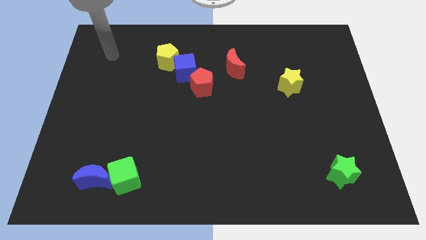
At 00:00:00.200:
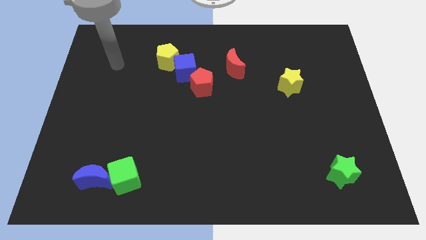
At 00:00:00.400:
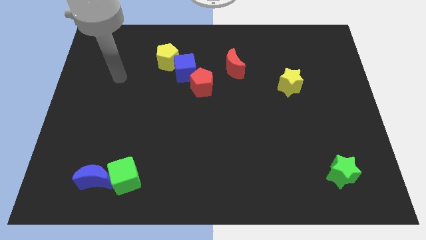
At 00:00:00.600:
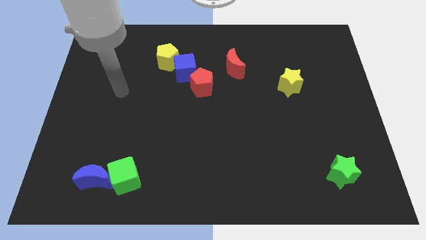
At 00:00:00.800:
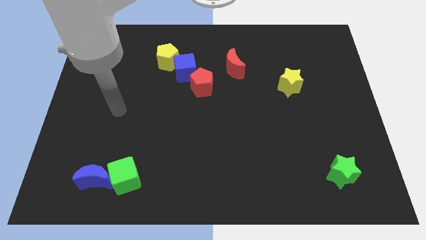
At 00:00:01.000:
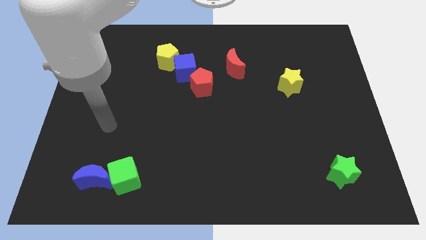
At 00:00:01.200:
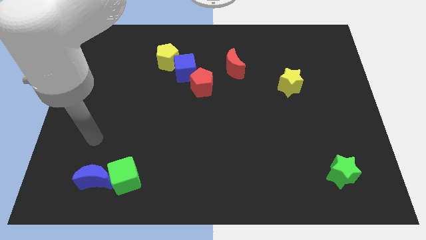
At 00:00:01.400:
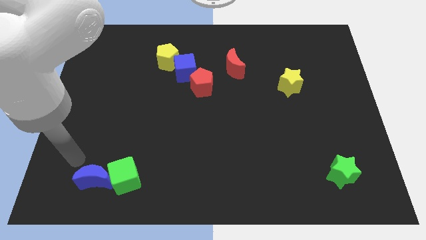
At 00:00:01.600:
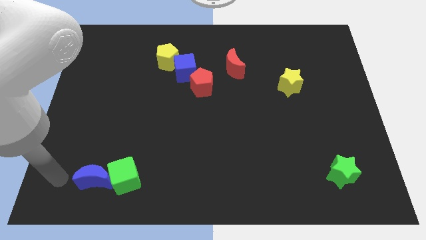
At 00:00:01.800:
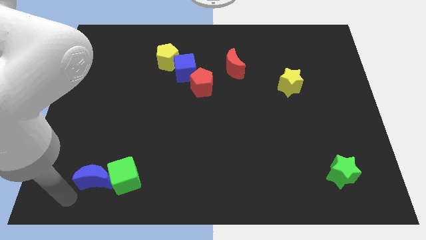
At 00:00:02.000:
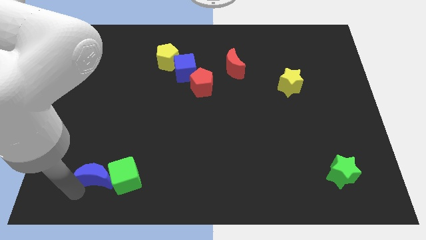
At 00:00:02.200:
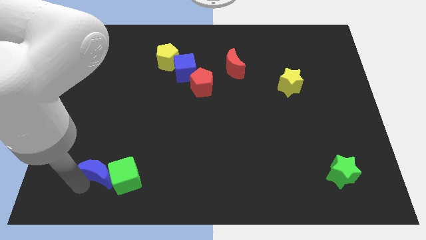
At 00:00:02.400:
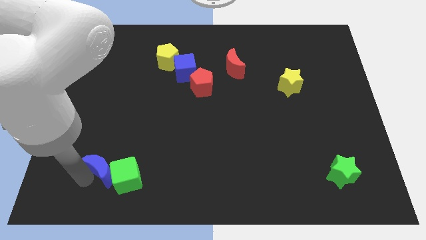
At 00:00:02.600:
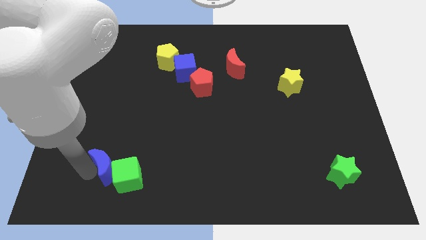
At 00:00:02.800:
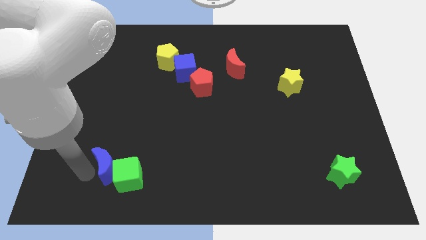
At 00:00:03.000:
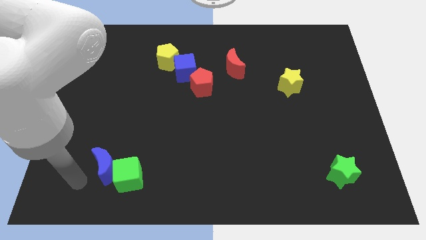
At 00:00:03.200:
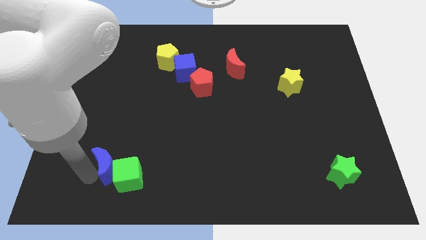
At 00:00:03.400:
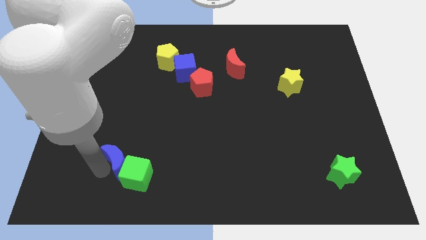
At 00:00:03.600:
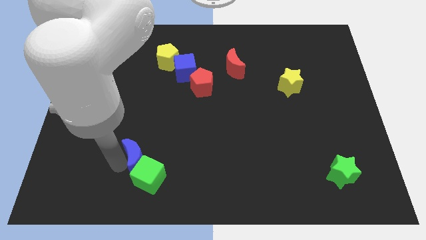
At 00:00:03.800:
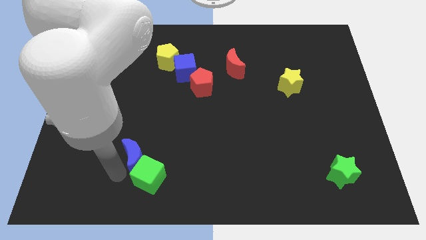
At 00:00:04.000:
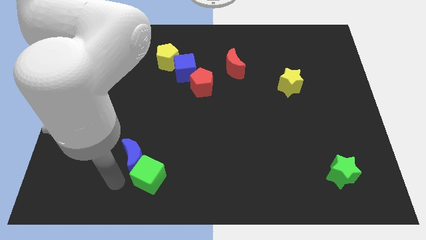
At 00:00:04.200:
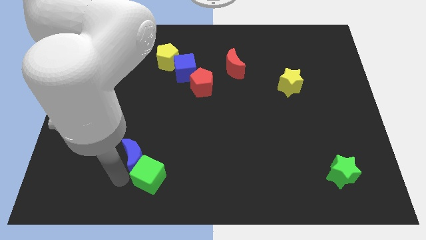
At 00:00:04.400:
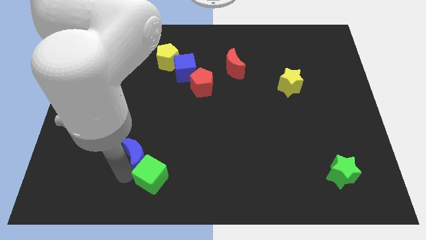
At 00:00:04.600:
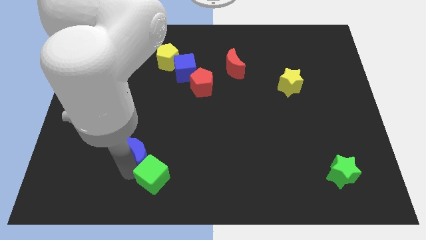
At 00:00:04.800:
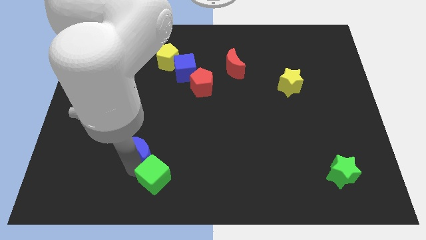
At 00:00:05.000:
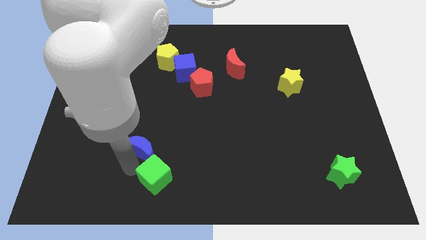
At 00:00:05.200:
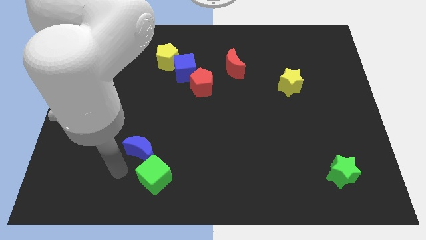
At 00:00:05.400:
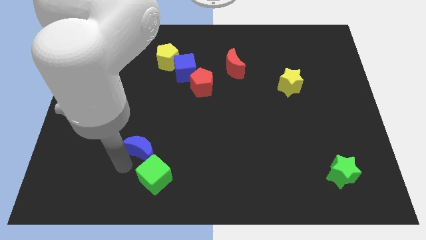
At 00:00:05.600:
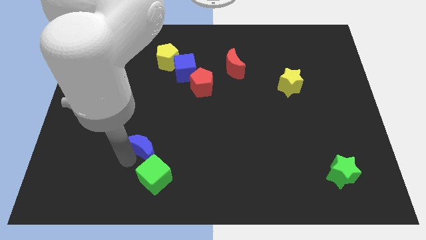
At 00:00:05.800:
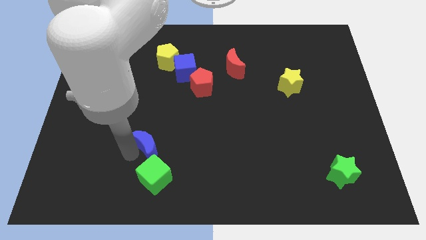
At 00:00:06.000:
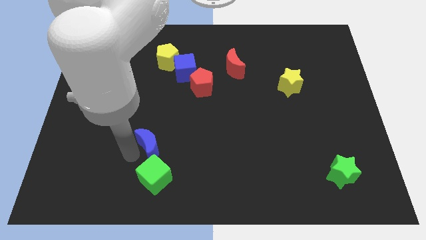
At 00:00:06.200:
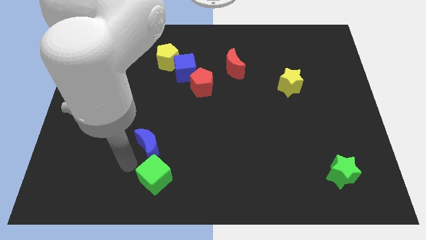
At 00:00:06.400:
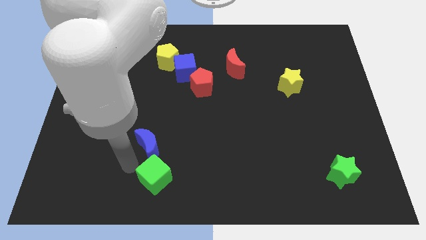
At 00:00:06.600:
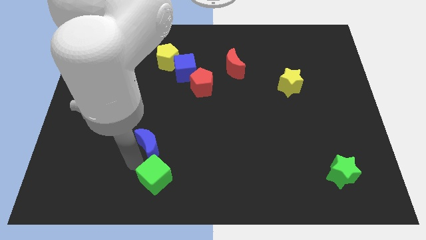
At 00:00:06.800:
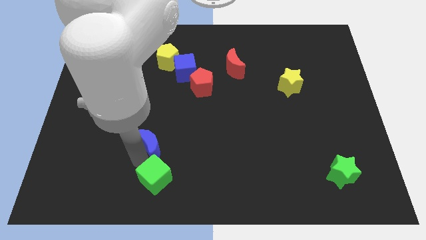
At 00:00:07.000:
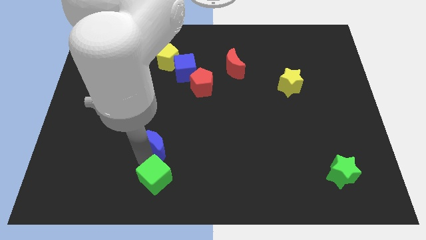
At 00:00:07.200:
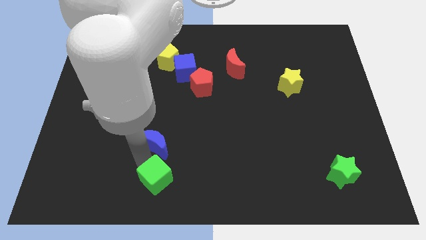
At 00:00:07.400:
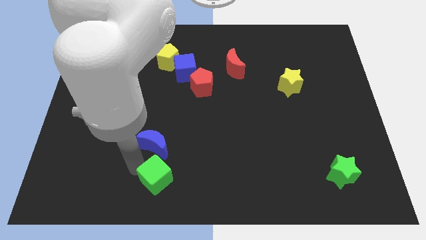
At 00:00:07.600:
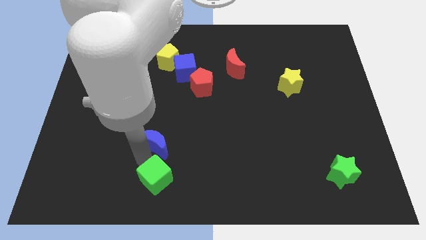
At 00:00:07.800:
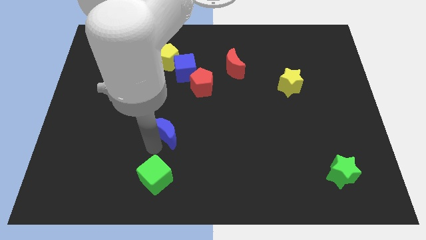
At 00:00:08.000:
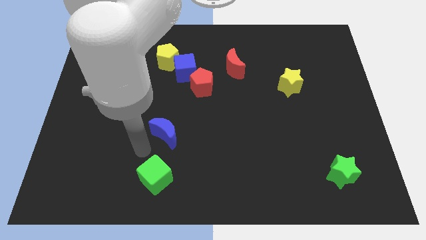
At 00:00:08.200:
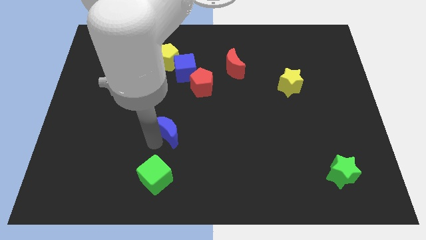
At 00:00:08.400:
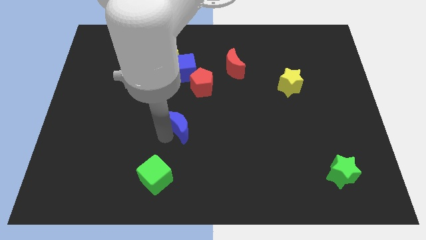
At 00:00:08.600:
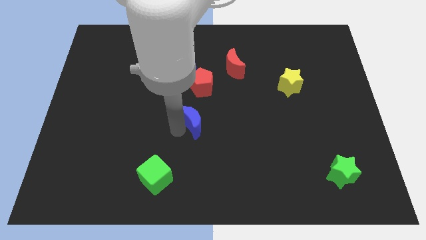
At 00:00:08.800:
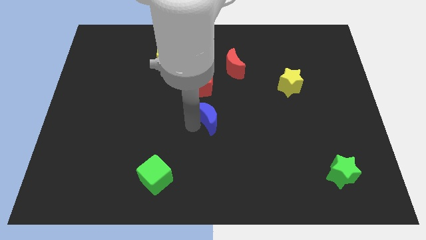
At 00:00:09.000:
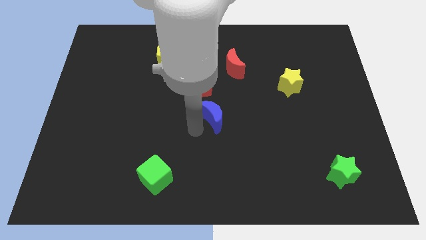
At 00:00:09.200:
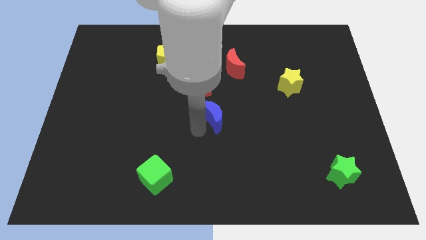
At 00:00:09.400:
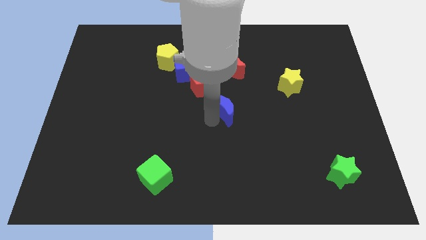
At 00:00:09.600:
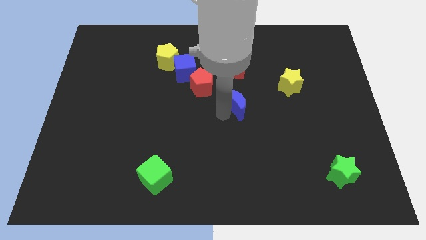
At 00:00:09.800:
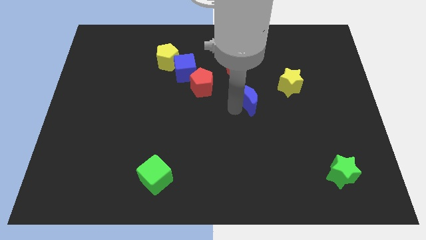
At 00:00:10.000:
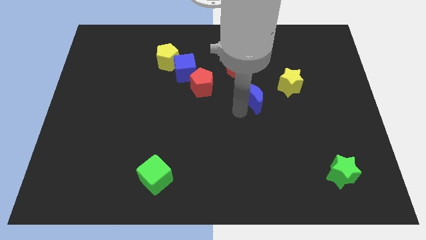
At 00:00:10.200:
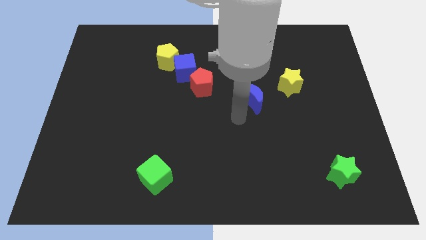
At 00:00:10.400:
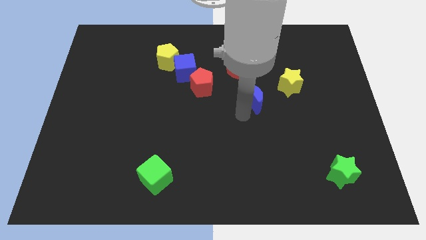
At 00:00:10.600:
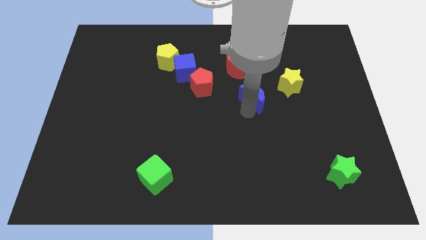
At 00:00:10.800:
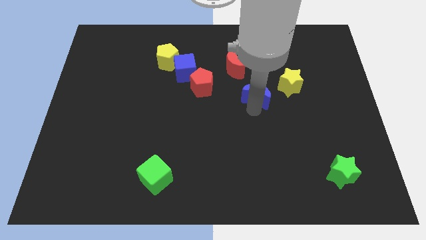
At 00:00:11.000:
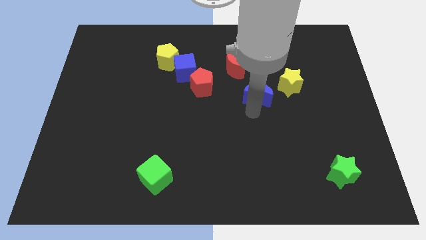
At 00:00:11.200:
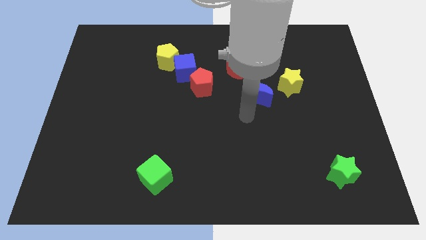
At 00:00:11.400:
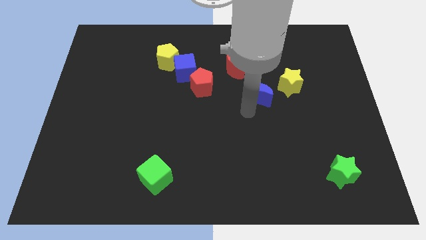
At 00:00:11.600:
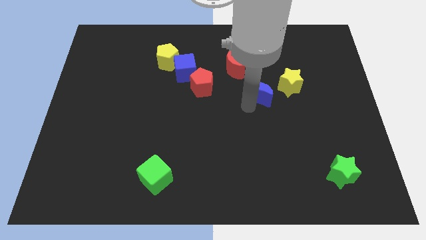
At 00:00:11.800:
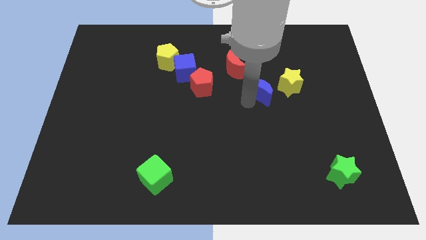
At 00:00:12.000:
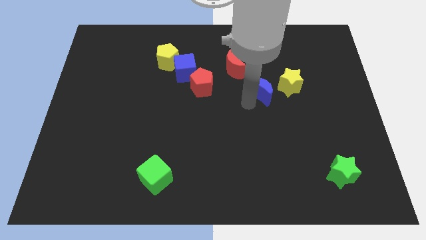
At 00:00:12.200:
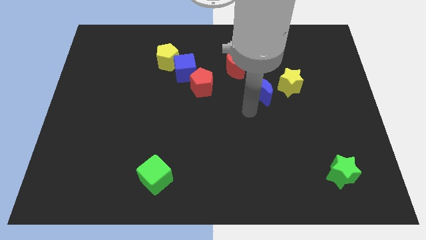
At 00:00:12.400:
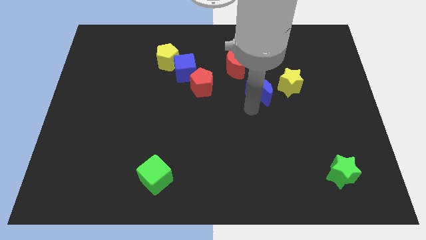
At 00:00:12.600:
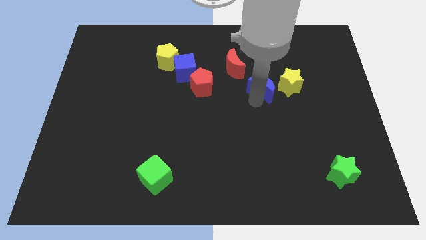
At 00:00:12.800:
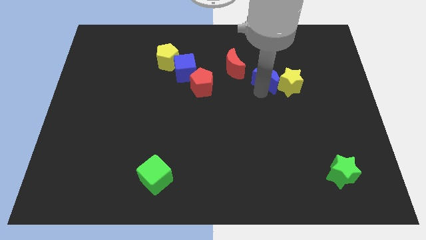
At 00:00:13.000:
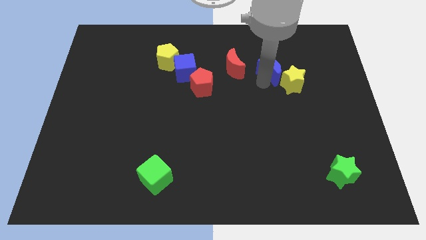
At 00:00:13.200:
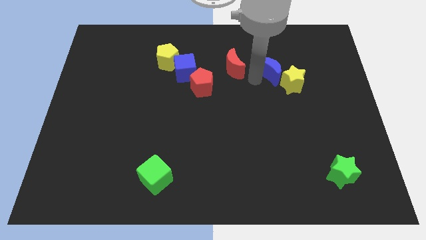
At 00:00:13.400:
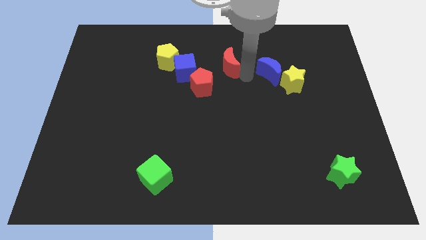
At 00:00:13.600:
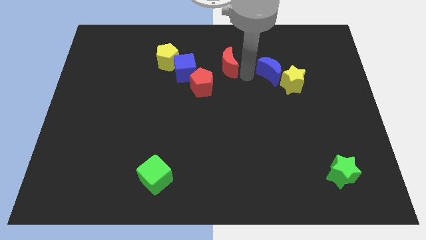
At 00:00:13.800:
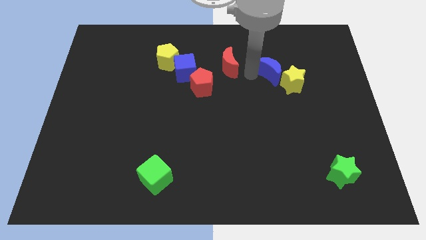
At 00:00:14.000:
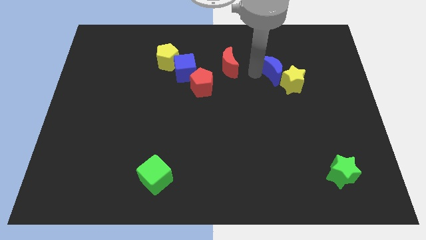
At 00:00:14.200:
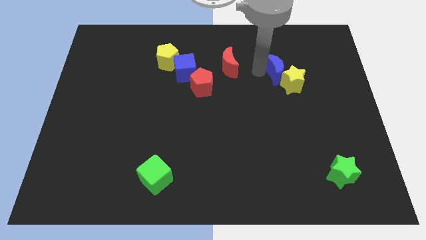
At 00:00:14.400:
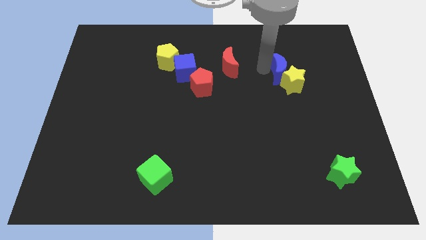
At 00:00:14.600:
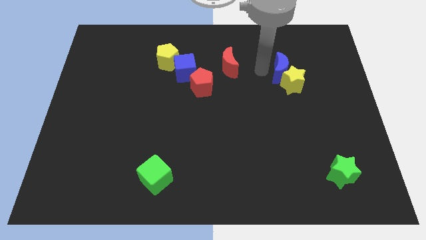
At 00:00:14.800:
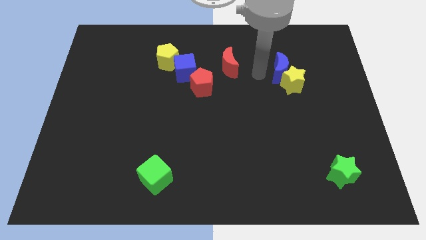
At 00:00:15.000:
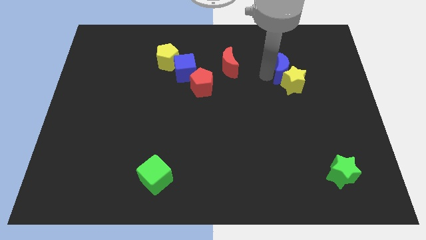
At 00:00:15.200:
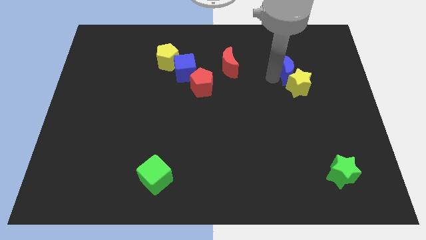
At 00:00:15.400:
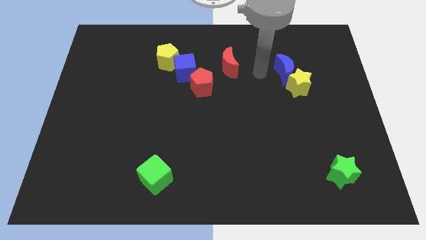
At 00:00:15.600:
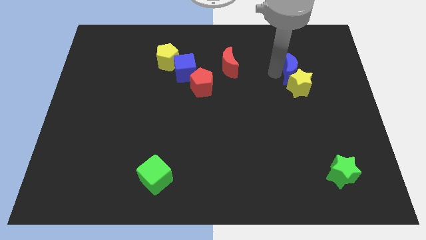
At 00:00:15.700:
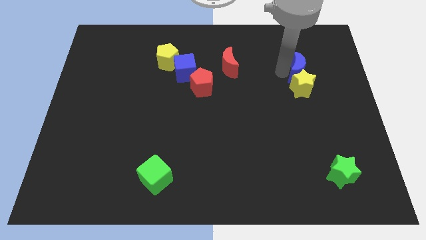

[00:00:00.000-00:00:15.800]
slide the blue moon to the top right side of the yellow star
